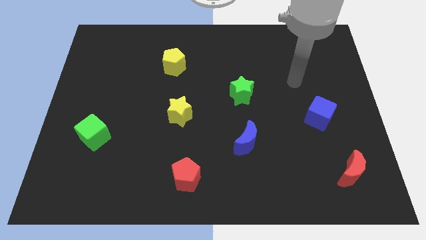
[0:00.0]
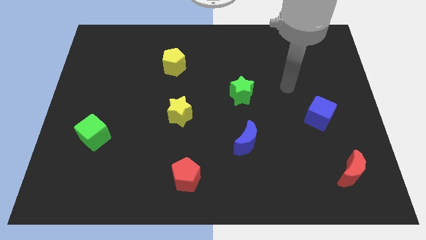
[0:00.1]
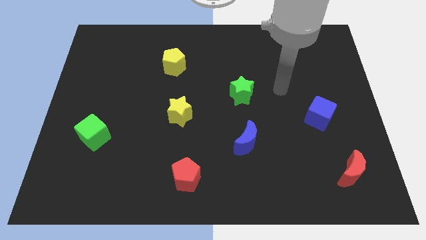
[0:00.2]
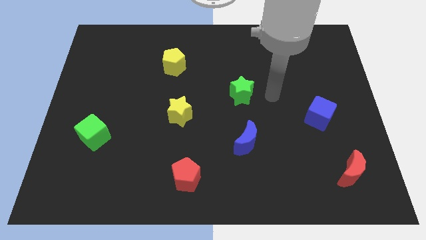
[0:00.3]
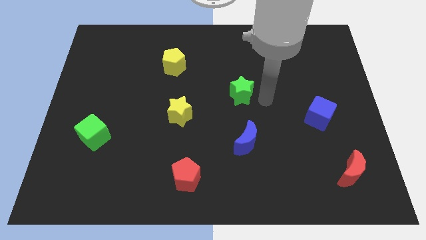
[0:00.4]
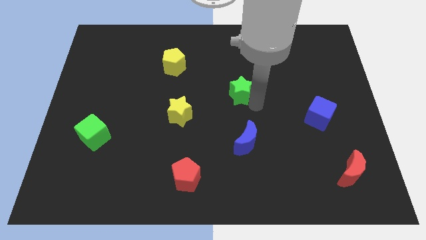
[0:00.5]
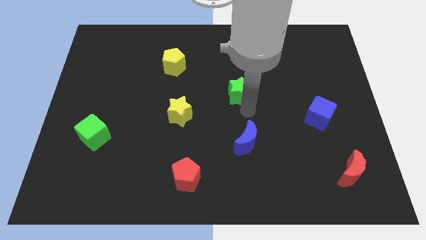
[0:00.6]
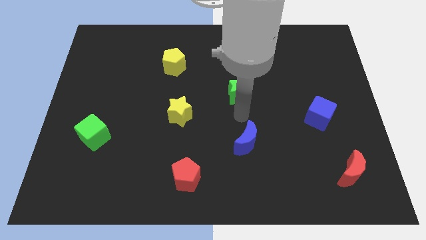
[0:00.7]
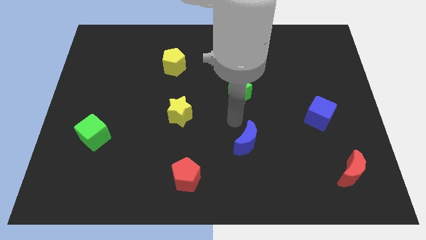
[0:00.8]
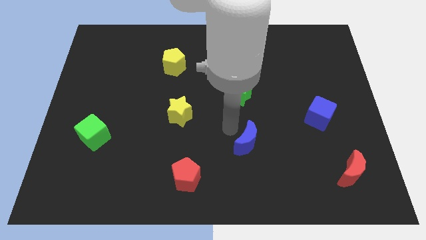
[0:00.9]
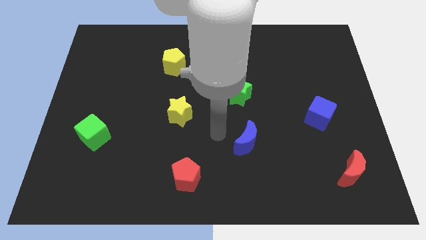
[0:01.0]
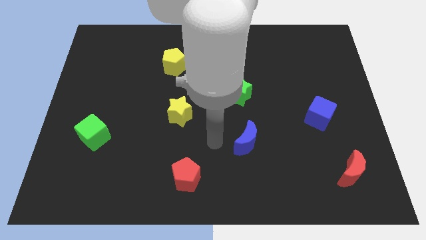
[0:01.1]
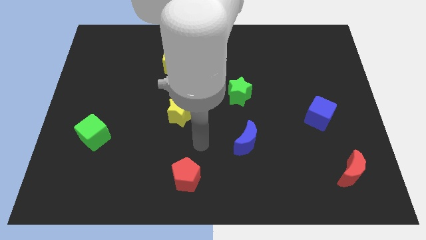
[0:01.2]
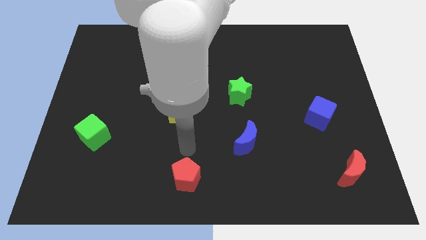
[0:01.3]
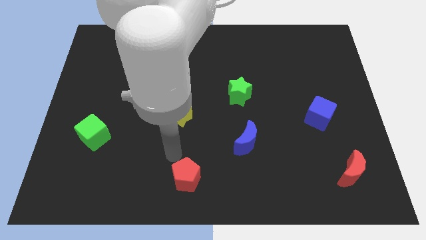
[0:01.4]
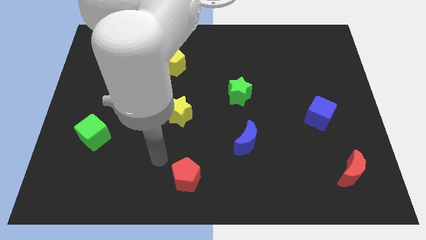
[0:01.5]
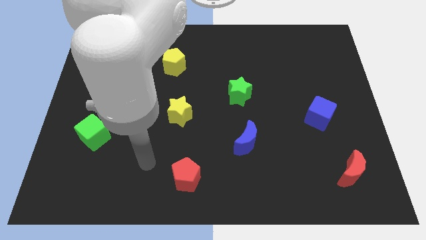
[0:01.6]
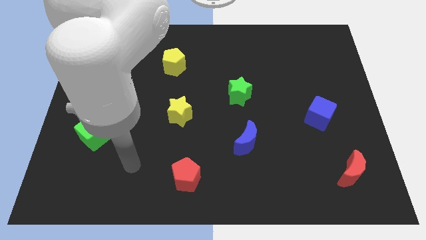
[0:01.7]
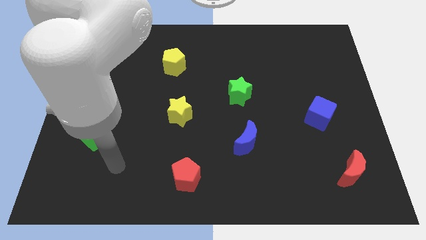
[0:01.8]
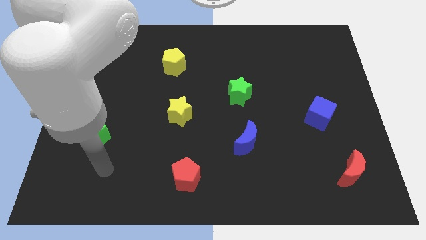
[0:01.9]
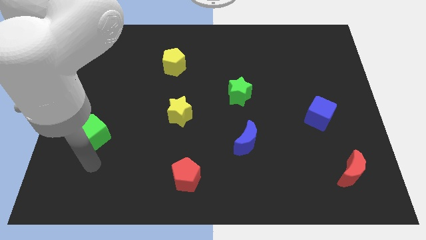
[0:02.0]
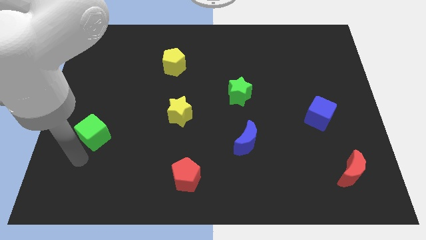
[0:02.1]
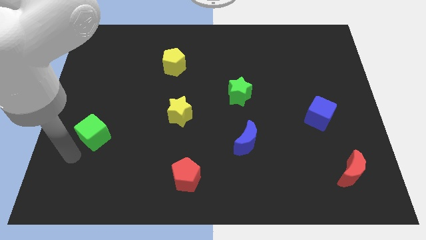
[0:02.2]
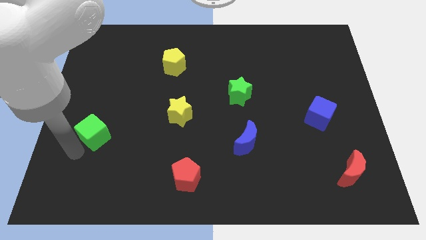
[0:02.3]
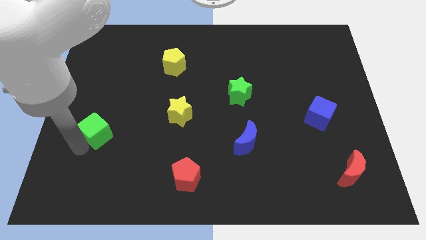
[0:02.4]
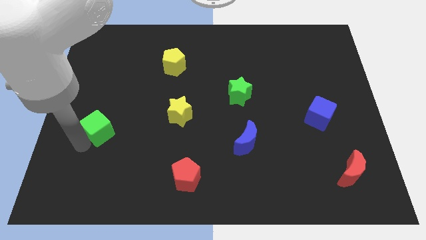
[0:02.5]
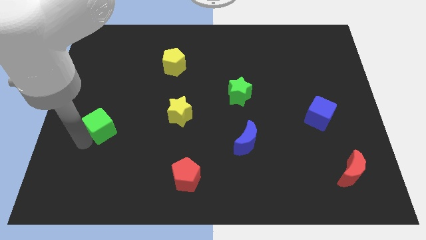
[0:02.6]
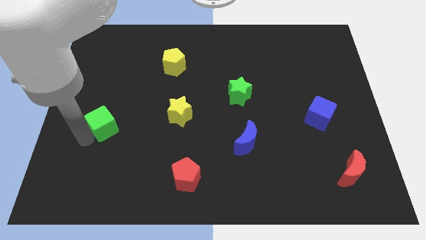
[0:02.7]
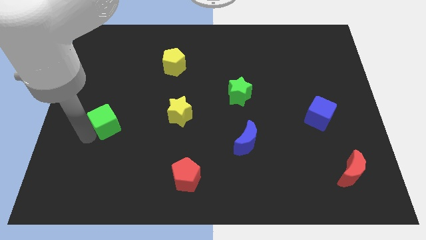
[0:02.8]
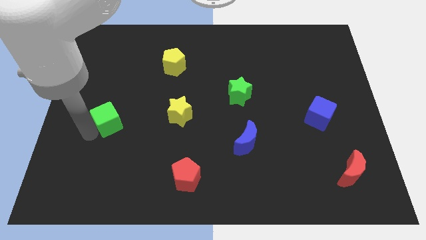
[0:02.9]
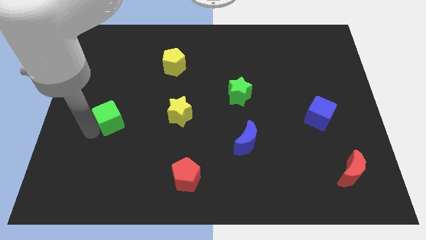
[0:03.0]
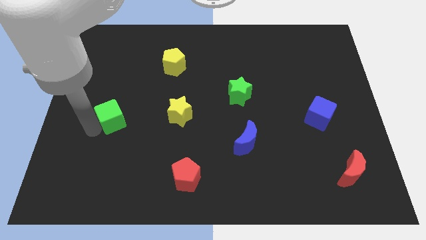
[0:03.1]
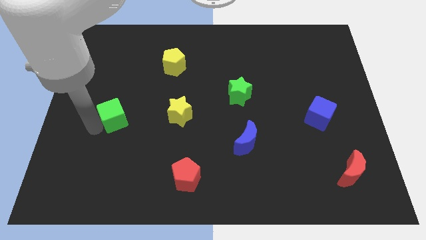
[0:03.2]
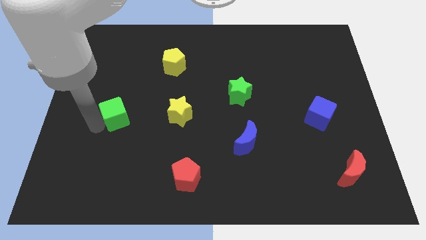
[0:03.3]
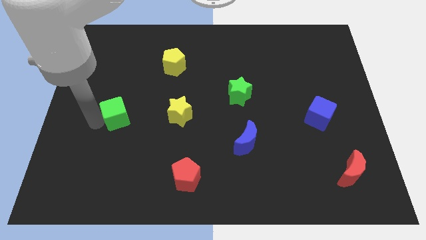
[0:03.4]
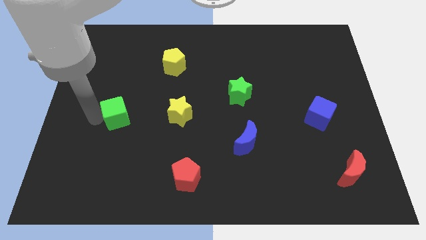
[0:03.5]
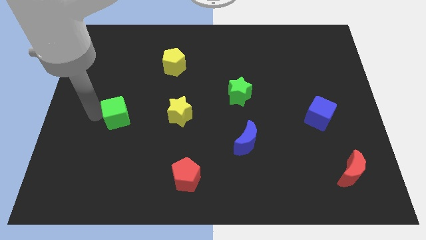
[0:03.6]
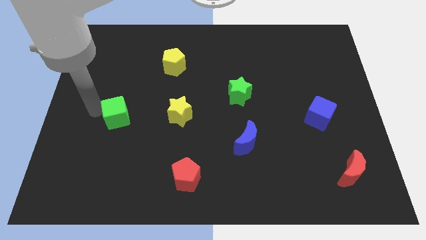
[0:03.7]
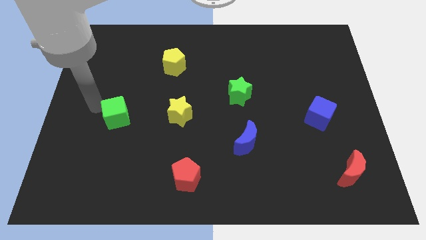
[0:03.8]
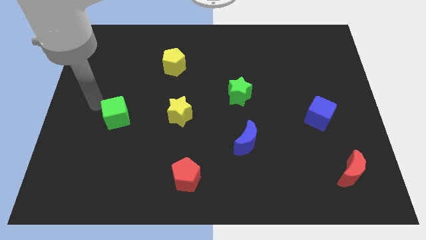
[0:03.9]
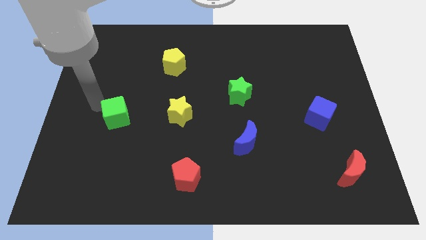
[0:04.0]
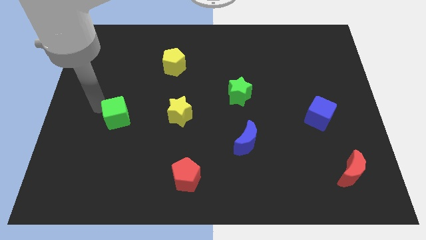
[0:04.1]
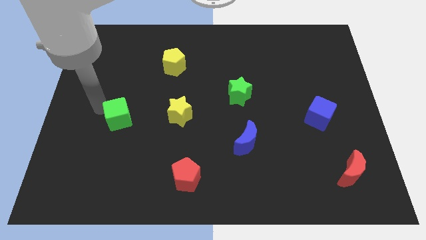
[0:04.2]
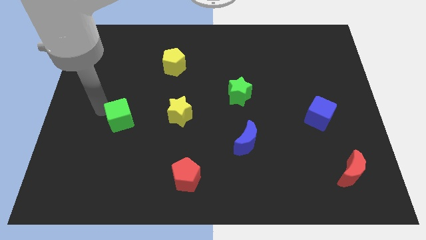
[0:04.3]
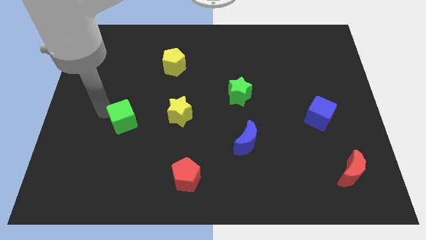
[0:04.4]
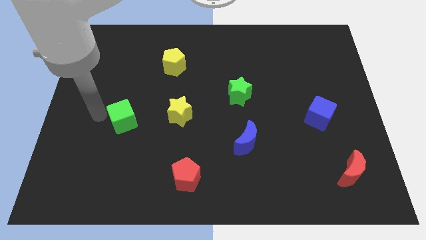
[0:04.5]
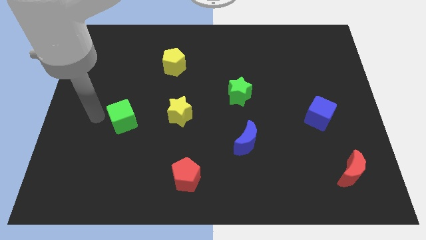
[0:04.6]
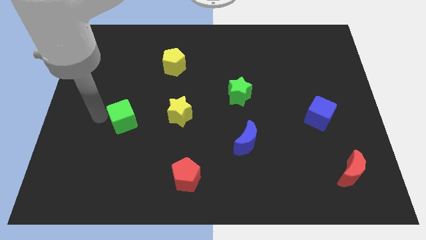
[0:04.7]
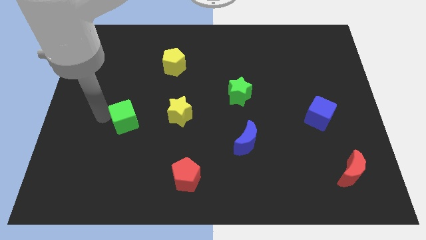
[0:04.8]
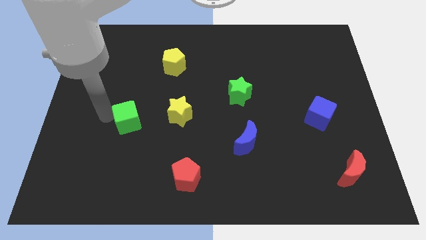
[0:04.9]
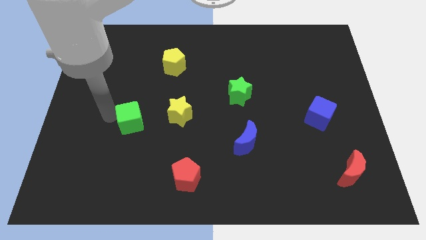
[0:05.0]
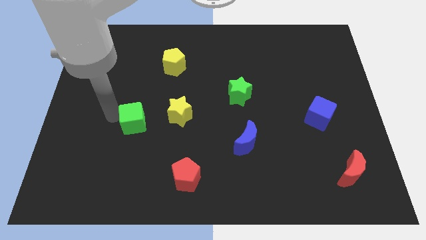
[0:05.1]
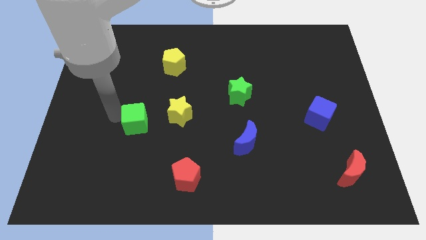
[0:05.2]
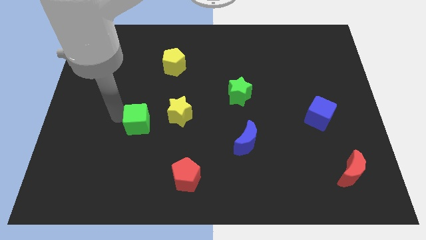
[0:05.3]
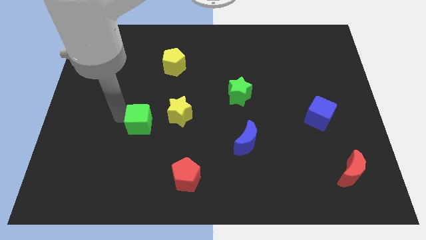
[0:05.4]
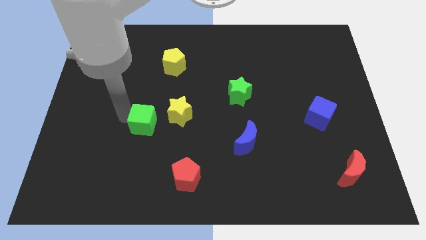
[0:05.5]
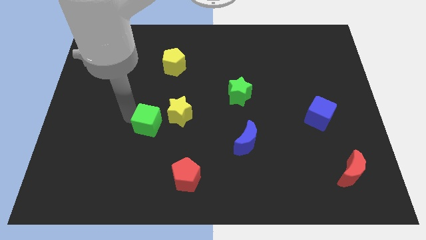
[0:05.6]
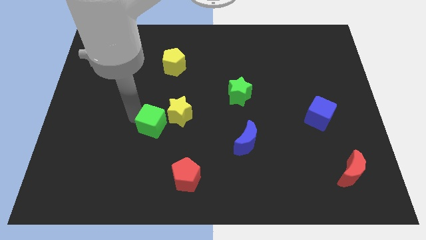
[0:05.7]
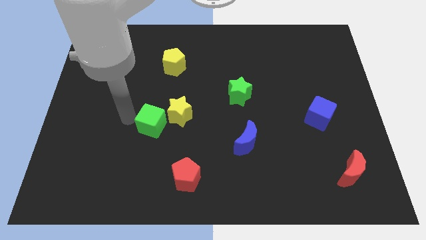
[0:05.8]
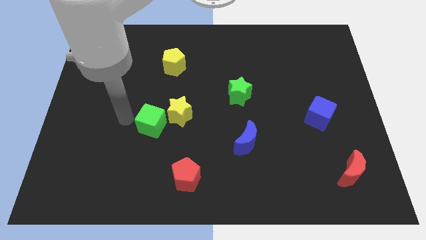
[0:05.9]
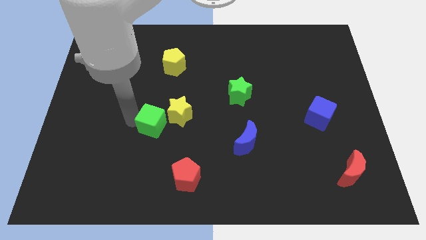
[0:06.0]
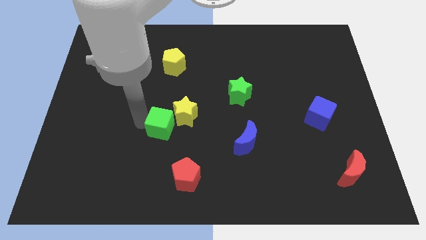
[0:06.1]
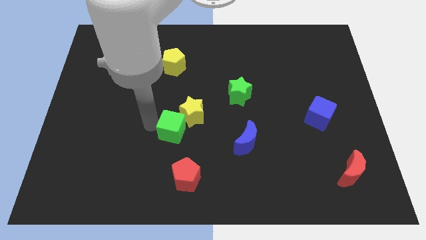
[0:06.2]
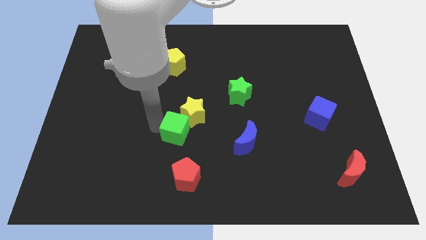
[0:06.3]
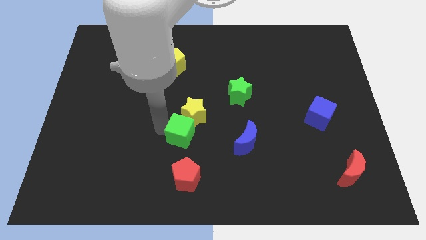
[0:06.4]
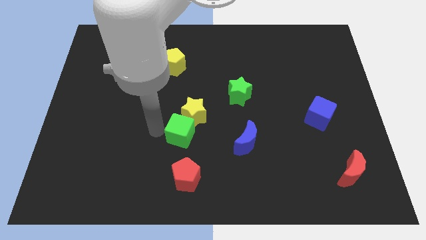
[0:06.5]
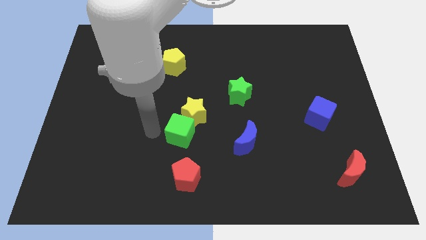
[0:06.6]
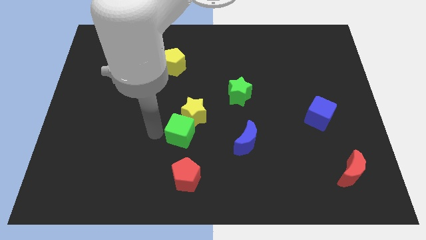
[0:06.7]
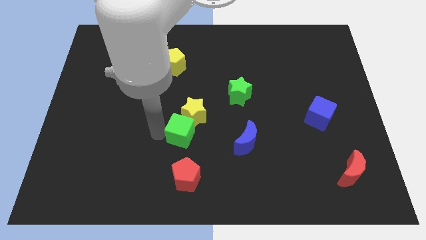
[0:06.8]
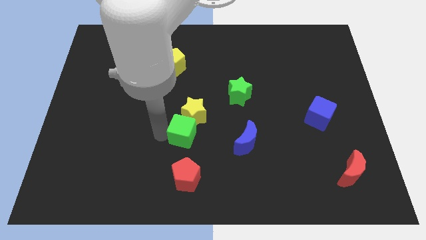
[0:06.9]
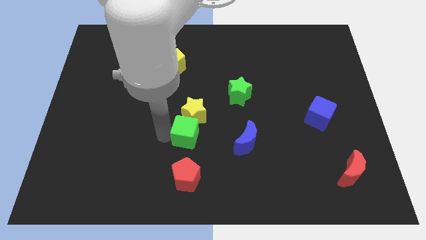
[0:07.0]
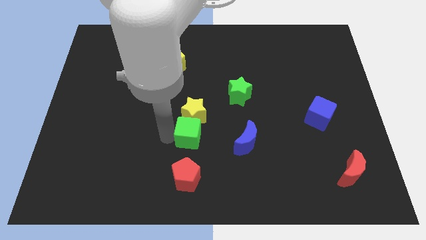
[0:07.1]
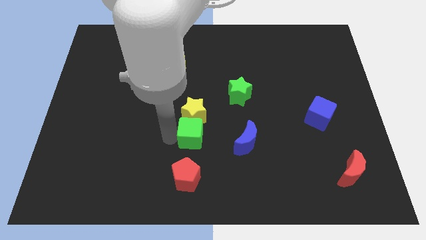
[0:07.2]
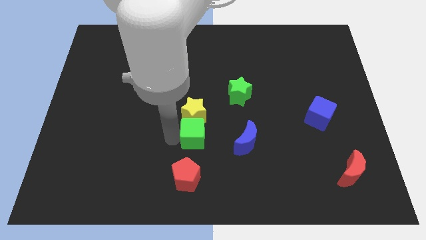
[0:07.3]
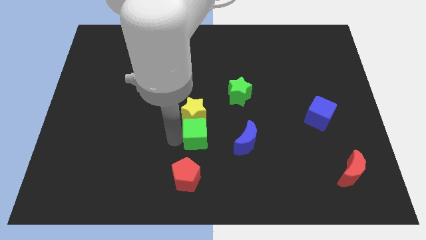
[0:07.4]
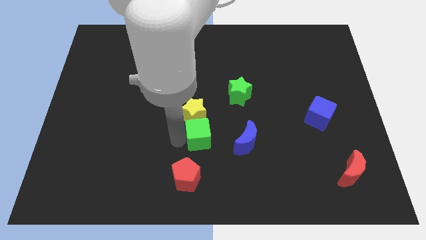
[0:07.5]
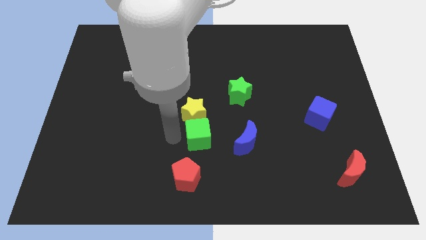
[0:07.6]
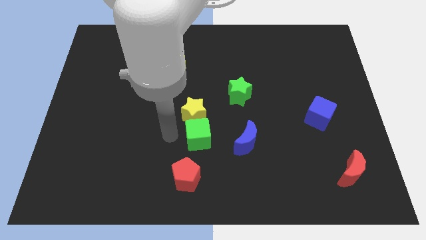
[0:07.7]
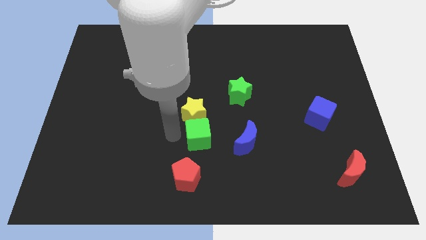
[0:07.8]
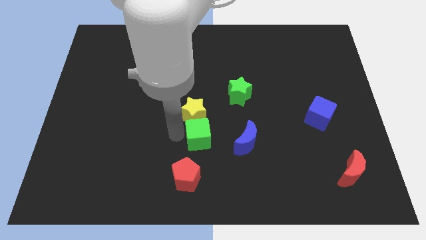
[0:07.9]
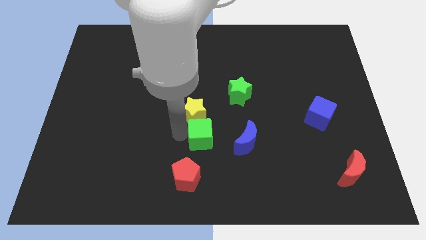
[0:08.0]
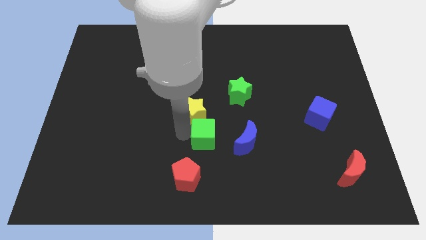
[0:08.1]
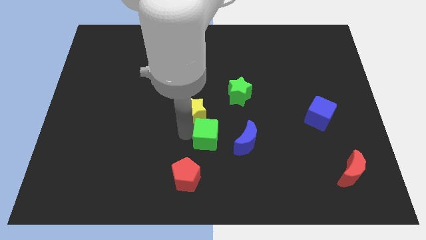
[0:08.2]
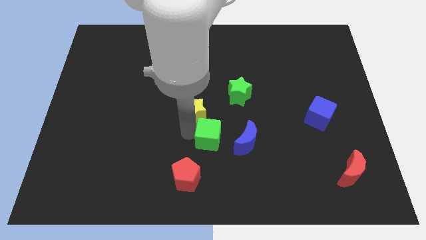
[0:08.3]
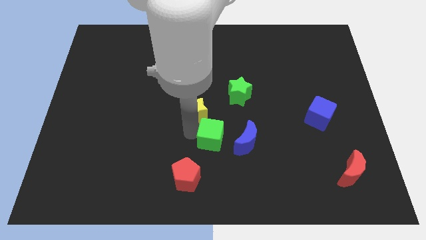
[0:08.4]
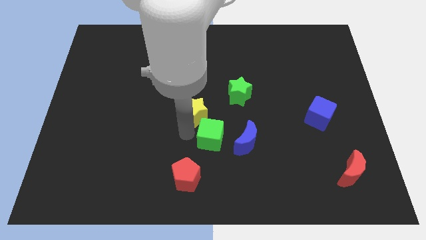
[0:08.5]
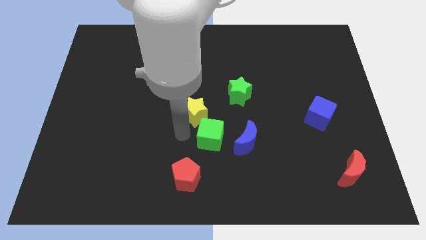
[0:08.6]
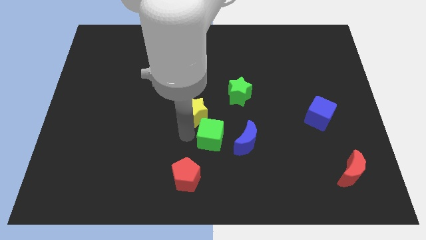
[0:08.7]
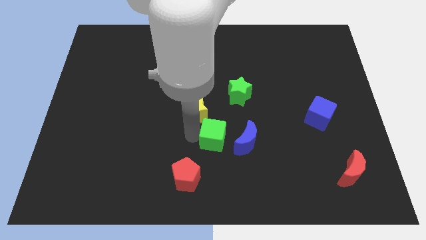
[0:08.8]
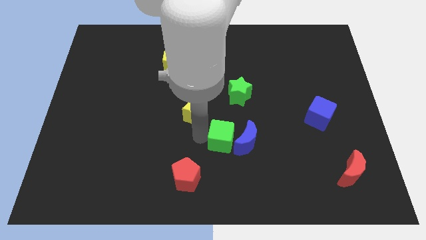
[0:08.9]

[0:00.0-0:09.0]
slide the green cube to the blue moon
